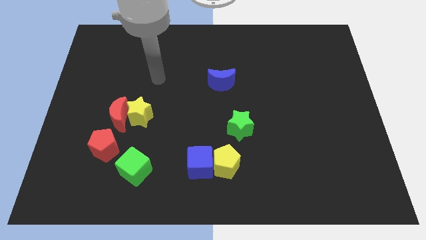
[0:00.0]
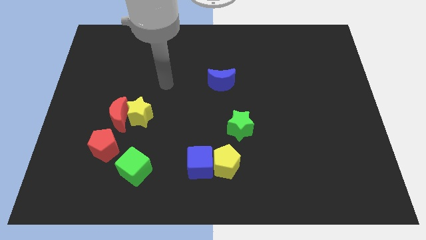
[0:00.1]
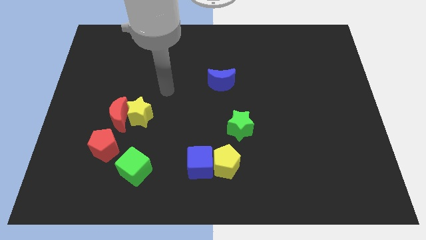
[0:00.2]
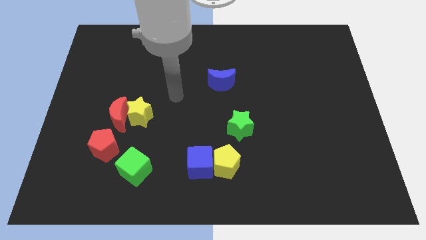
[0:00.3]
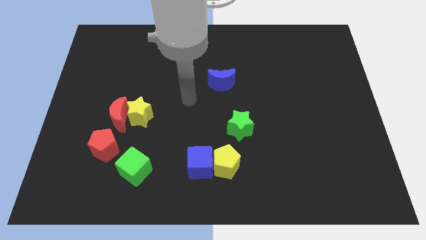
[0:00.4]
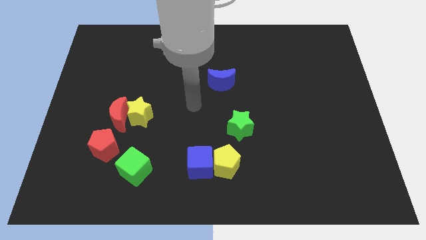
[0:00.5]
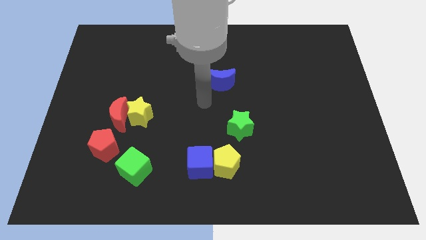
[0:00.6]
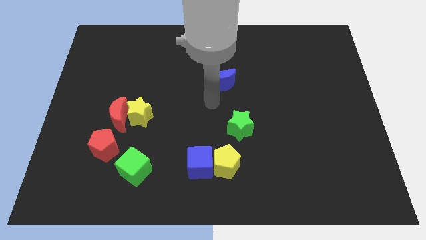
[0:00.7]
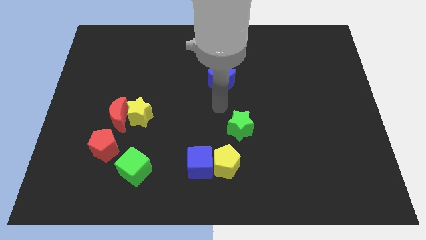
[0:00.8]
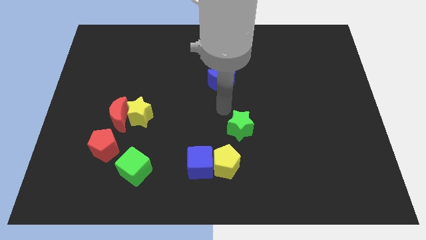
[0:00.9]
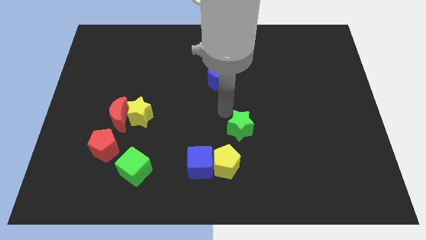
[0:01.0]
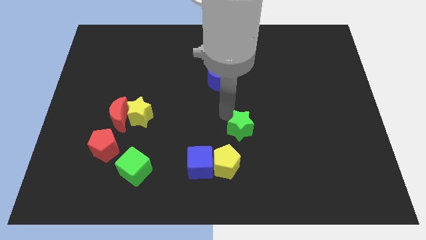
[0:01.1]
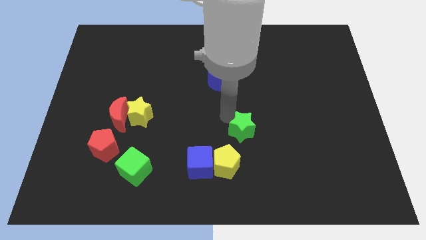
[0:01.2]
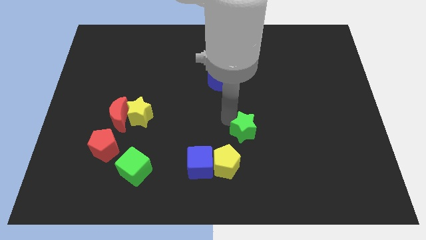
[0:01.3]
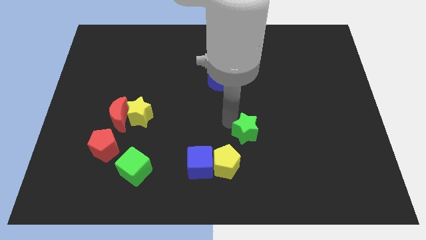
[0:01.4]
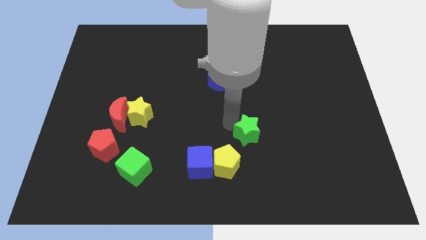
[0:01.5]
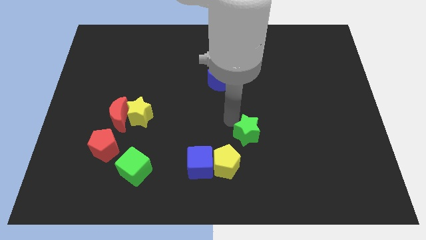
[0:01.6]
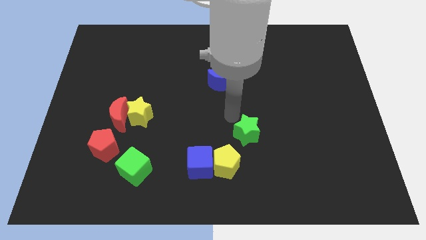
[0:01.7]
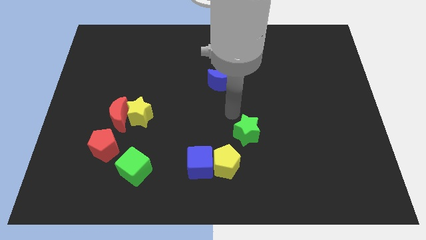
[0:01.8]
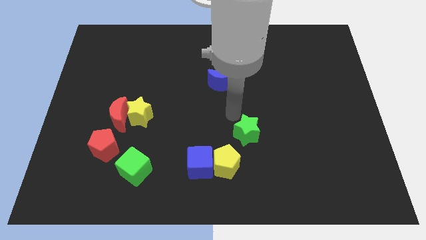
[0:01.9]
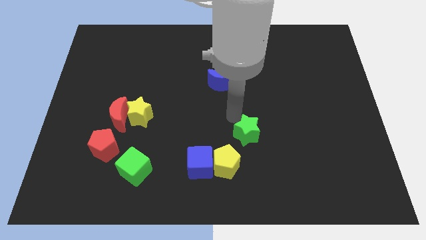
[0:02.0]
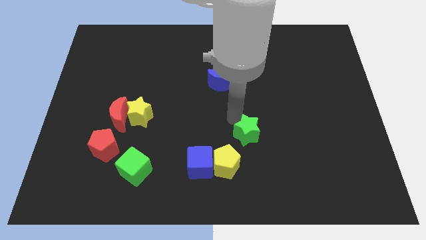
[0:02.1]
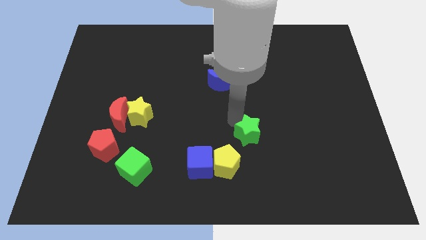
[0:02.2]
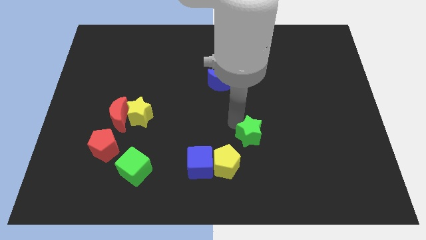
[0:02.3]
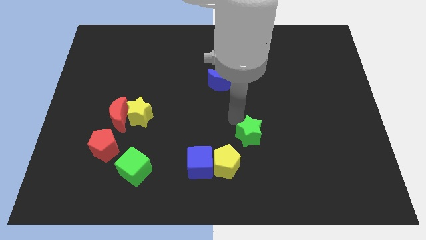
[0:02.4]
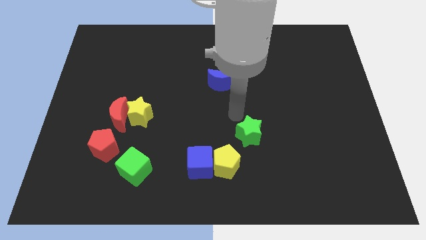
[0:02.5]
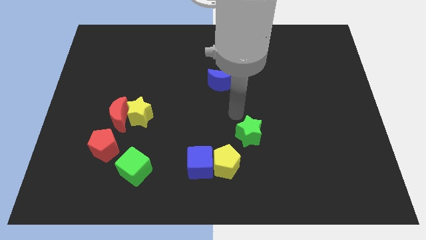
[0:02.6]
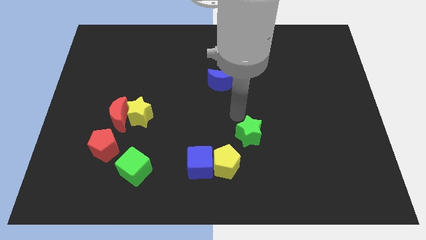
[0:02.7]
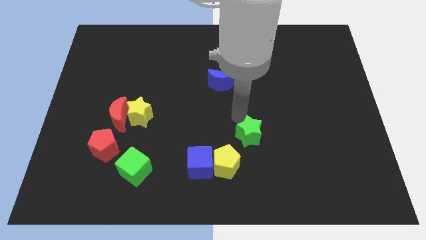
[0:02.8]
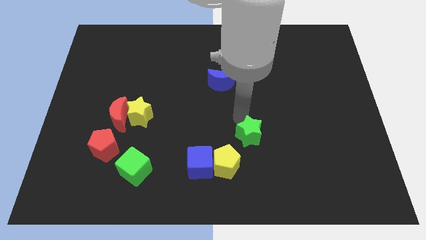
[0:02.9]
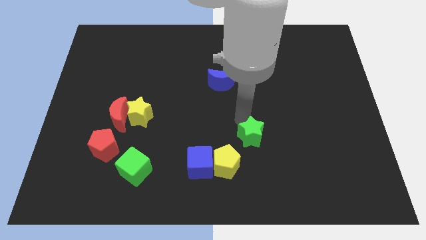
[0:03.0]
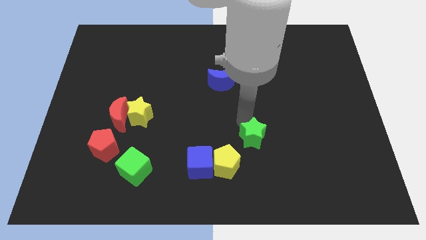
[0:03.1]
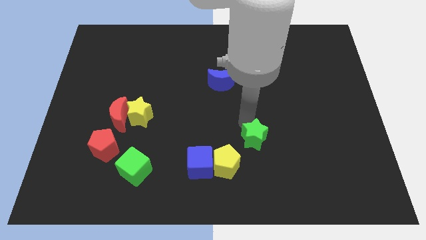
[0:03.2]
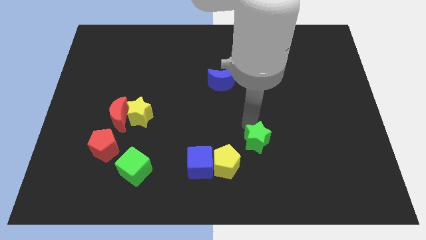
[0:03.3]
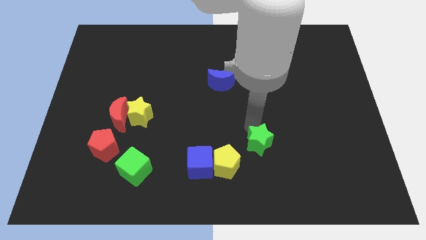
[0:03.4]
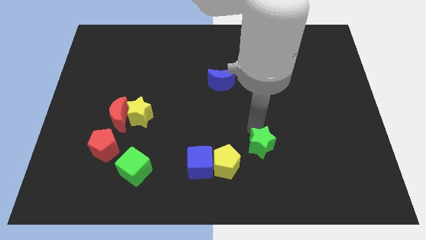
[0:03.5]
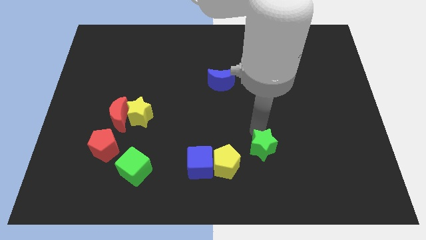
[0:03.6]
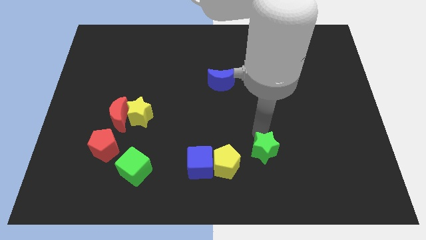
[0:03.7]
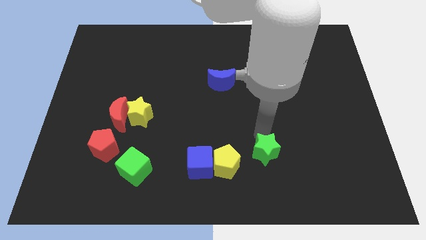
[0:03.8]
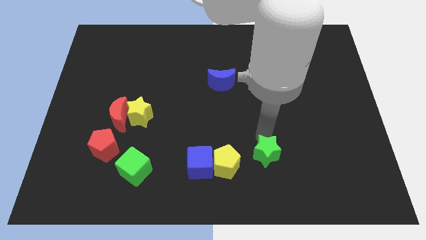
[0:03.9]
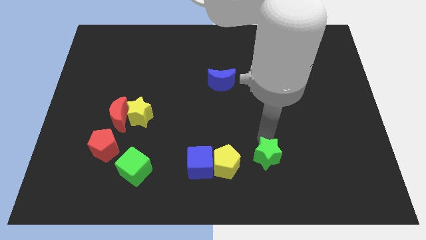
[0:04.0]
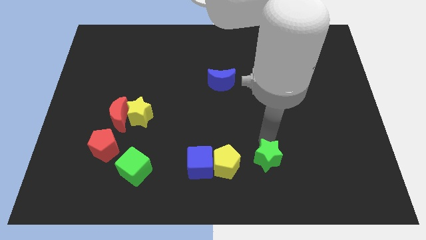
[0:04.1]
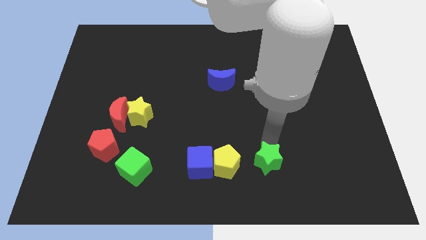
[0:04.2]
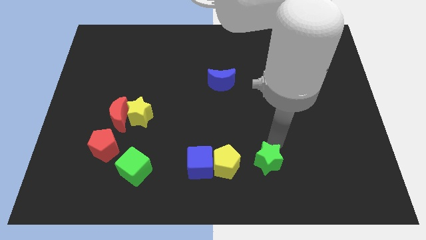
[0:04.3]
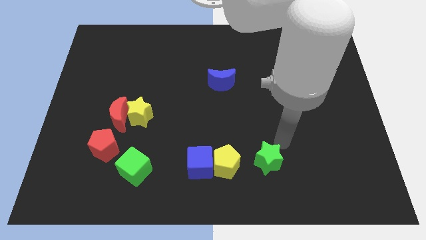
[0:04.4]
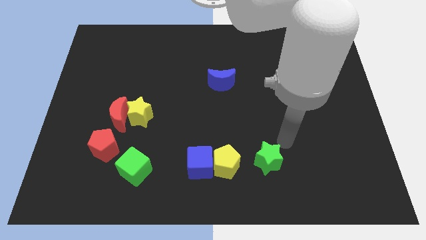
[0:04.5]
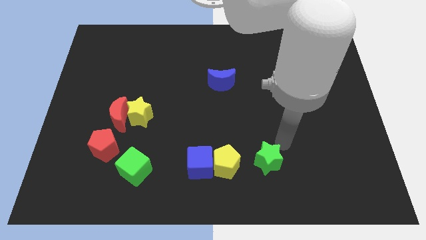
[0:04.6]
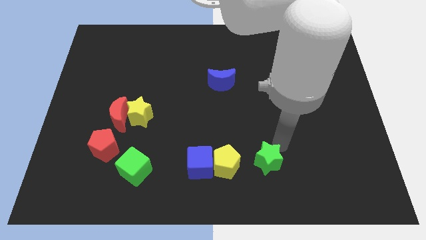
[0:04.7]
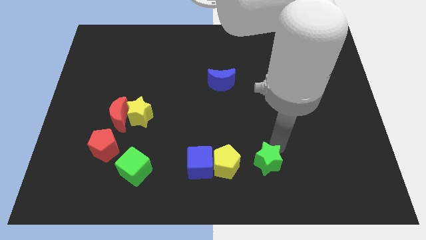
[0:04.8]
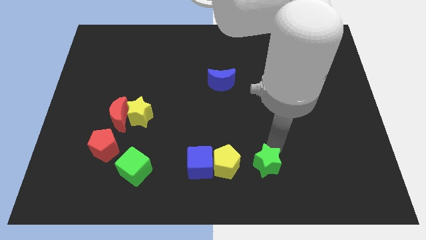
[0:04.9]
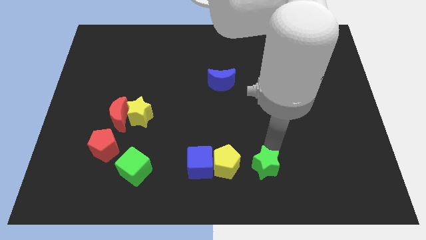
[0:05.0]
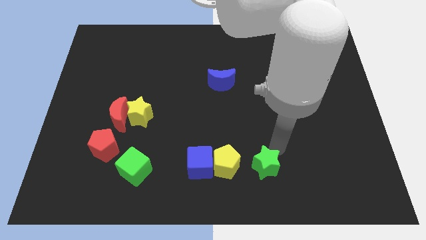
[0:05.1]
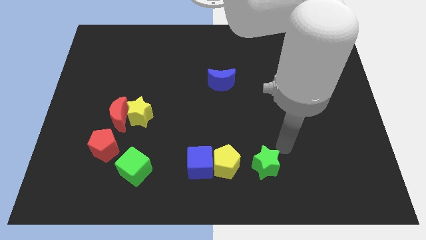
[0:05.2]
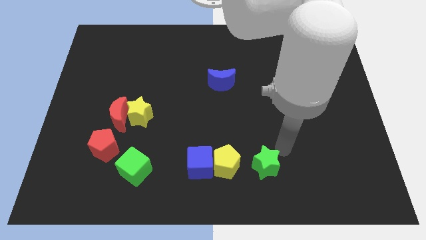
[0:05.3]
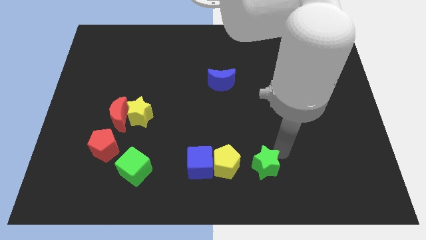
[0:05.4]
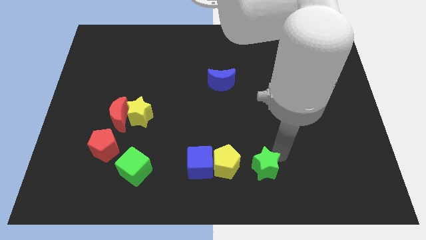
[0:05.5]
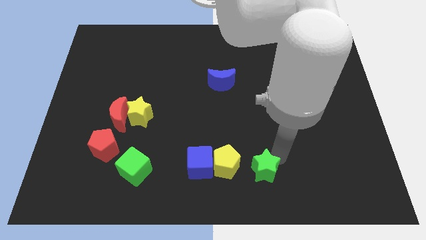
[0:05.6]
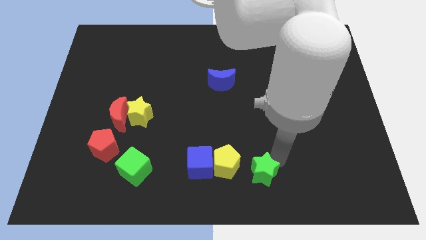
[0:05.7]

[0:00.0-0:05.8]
move the green star to the bottom side
